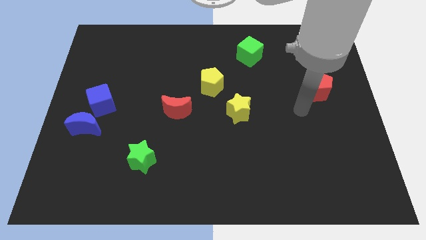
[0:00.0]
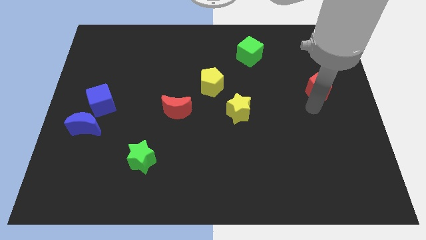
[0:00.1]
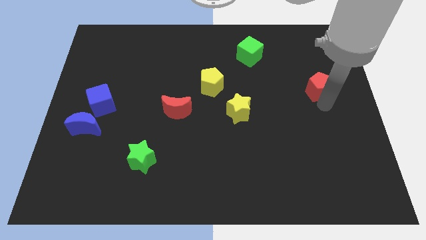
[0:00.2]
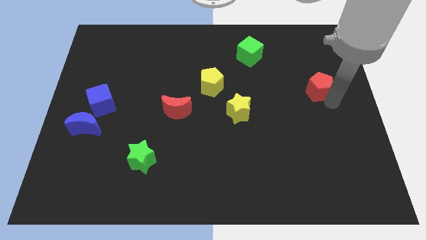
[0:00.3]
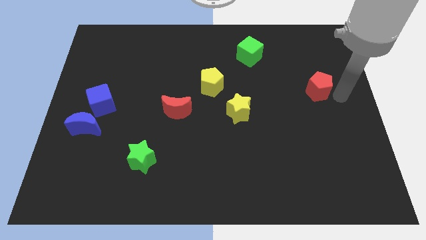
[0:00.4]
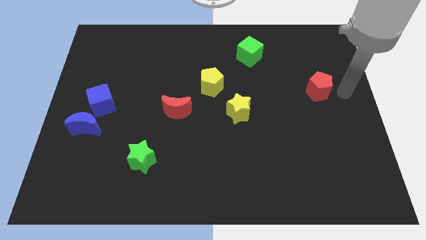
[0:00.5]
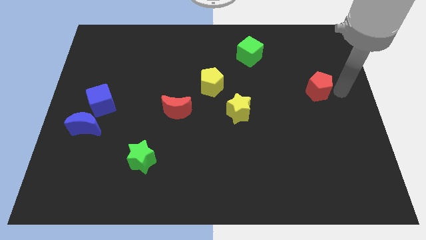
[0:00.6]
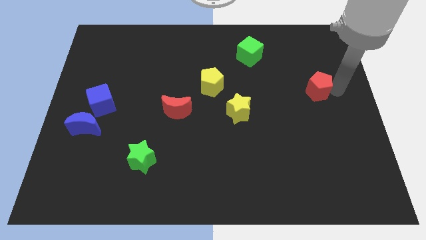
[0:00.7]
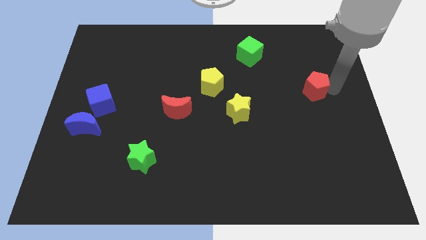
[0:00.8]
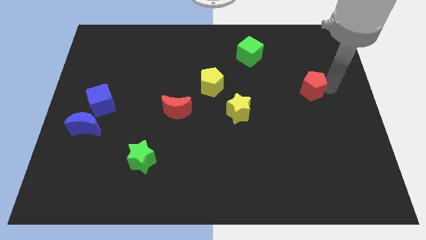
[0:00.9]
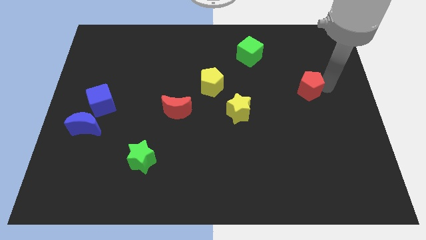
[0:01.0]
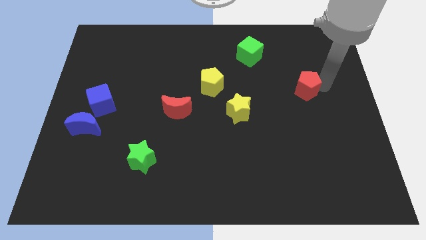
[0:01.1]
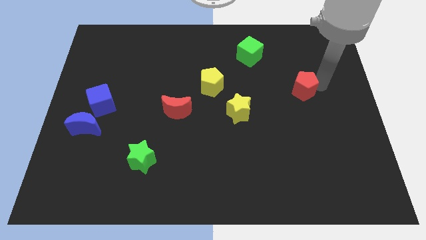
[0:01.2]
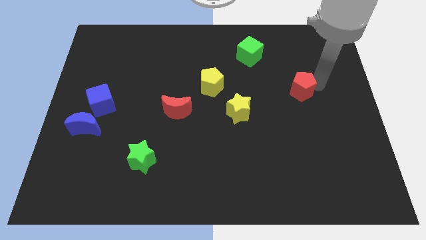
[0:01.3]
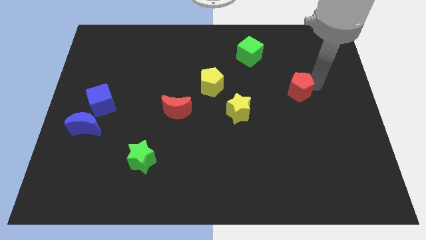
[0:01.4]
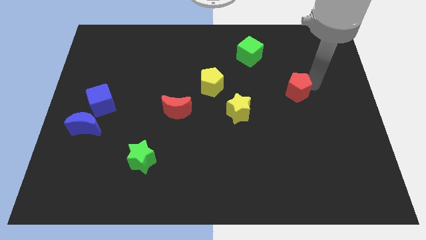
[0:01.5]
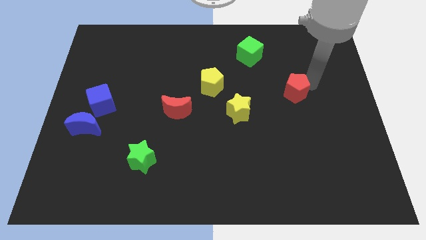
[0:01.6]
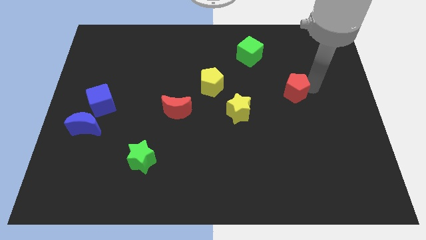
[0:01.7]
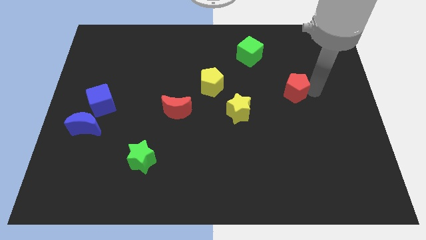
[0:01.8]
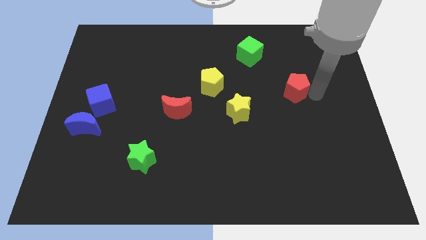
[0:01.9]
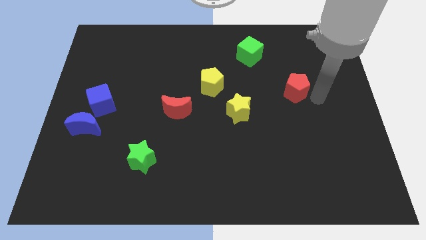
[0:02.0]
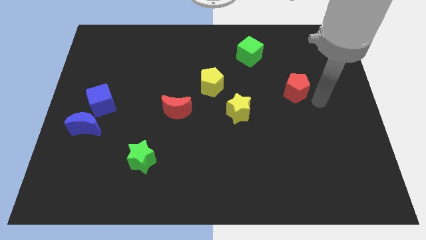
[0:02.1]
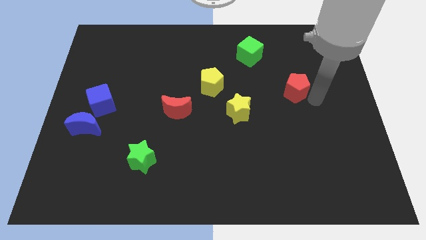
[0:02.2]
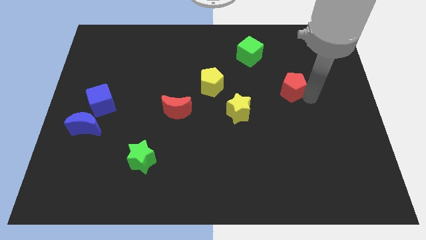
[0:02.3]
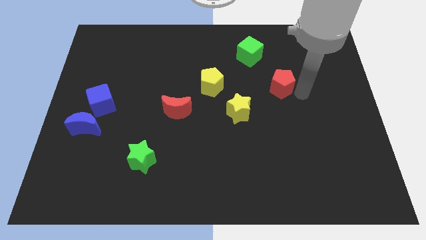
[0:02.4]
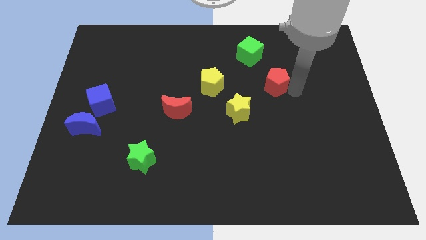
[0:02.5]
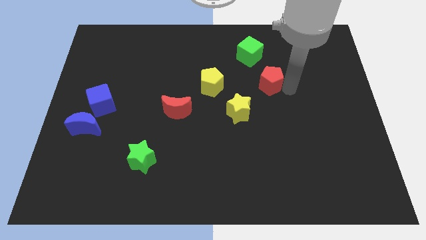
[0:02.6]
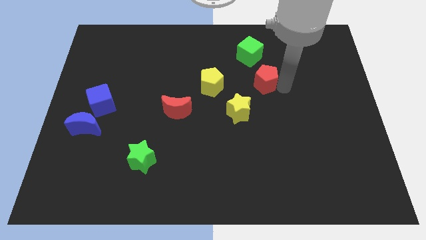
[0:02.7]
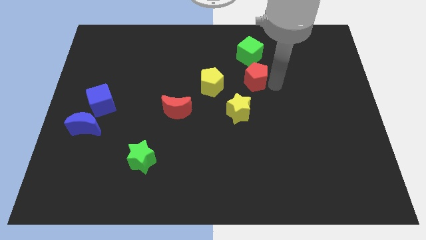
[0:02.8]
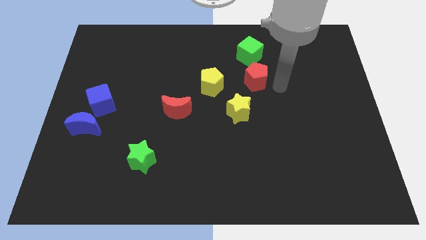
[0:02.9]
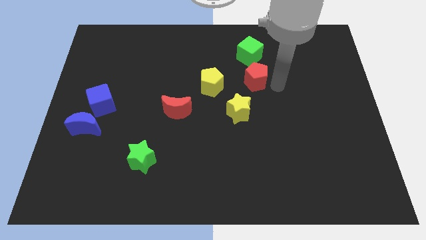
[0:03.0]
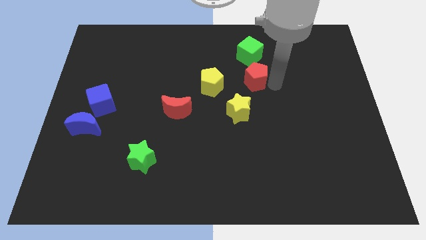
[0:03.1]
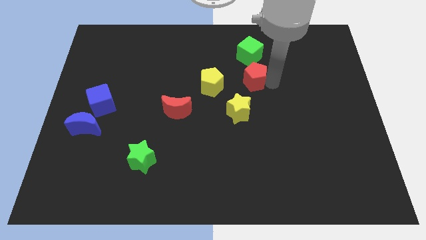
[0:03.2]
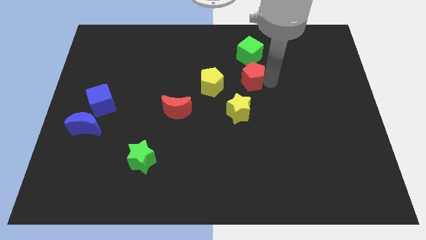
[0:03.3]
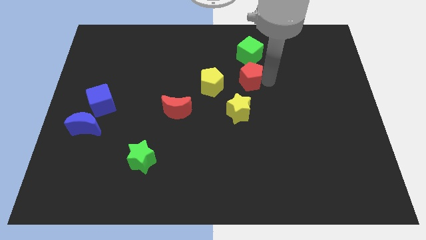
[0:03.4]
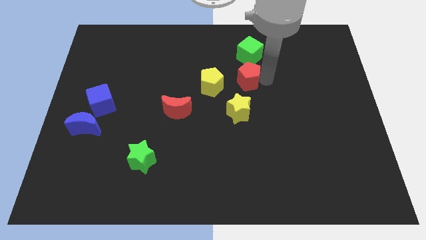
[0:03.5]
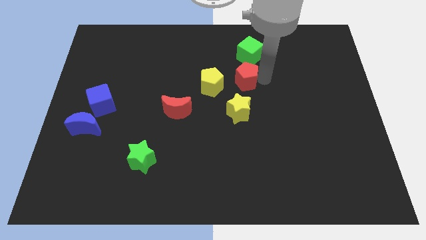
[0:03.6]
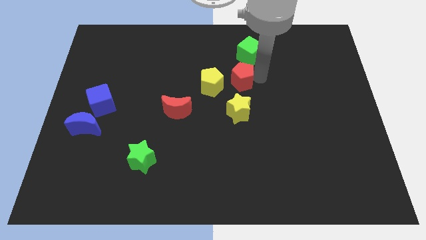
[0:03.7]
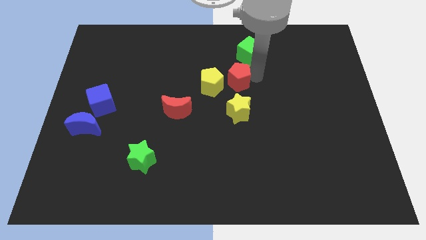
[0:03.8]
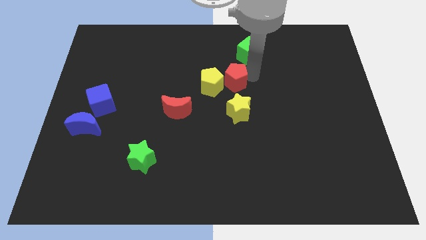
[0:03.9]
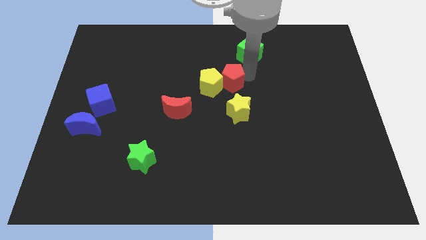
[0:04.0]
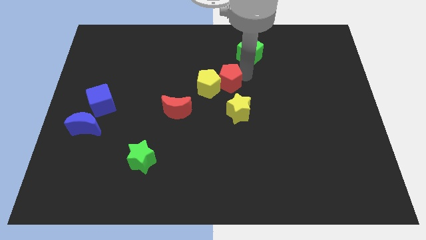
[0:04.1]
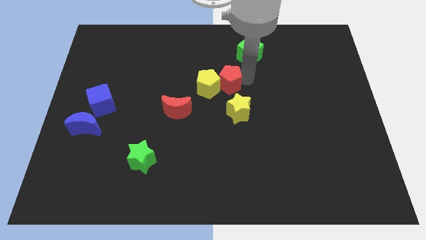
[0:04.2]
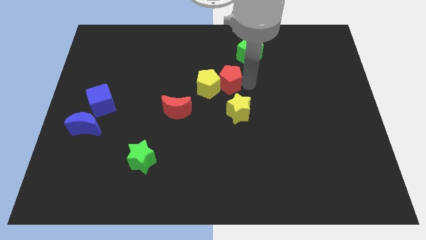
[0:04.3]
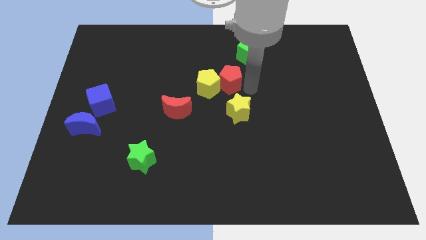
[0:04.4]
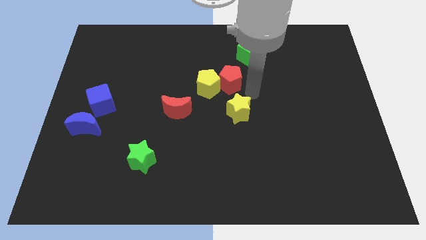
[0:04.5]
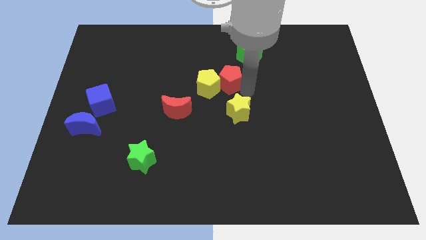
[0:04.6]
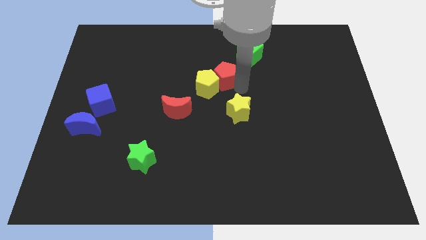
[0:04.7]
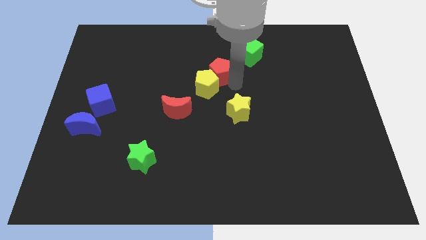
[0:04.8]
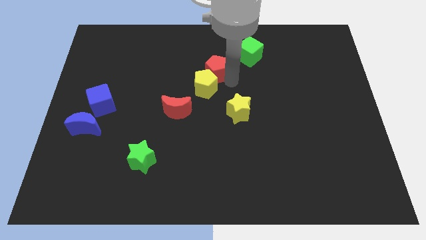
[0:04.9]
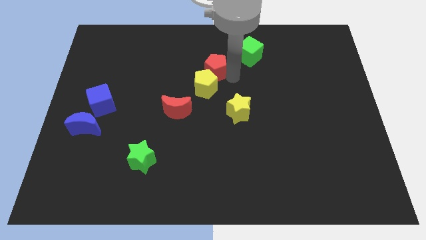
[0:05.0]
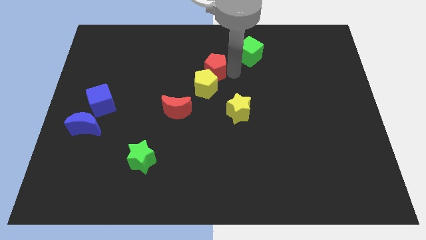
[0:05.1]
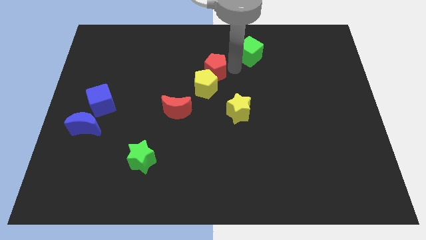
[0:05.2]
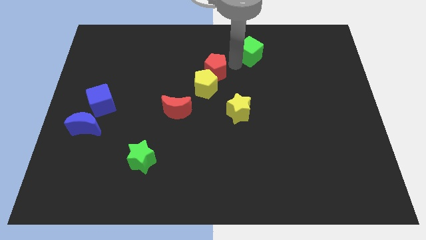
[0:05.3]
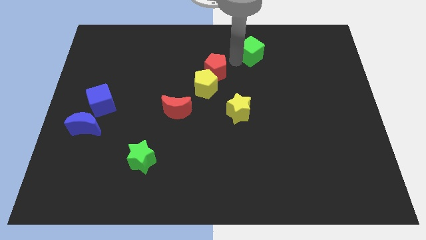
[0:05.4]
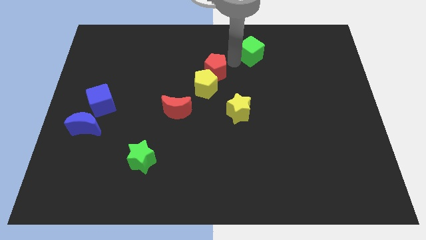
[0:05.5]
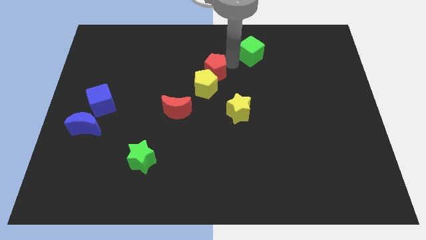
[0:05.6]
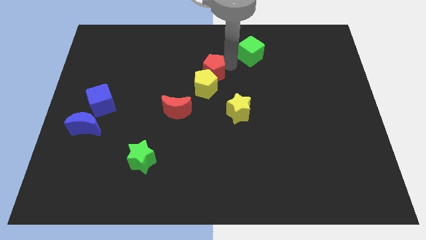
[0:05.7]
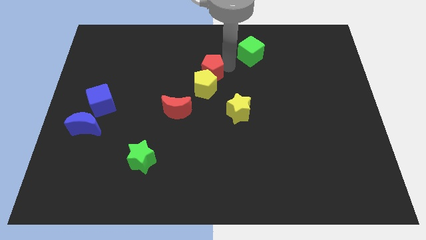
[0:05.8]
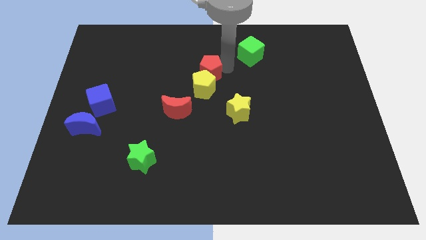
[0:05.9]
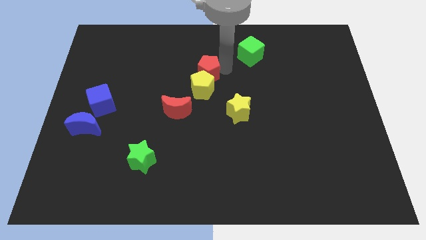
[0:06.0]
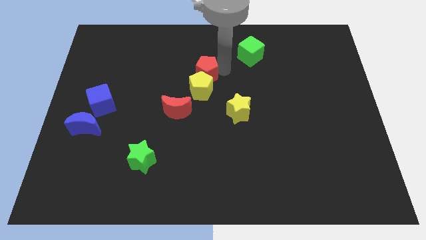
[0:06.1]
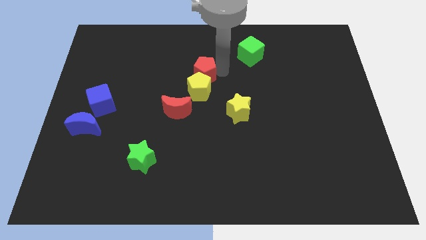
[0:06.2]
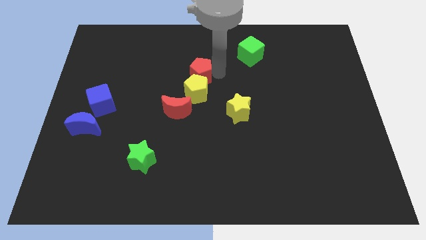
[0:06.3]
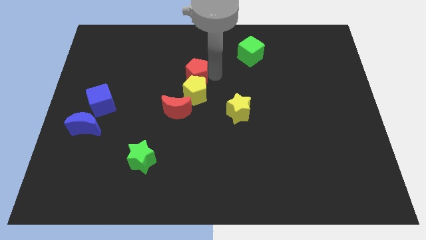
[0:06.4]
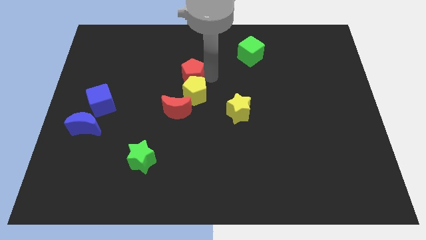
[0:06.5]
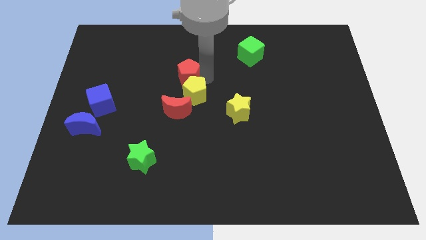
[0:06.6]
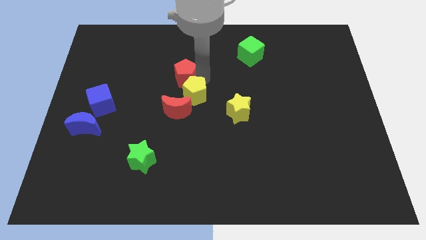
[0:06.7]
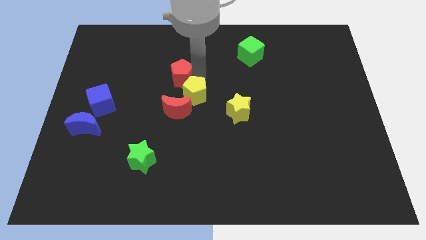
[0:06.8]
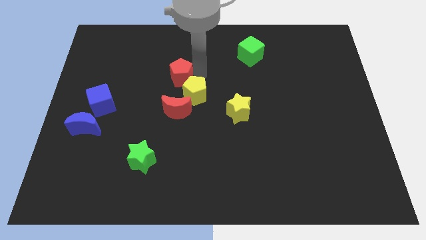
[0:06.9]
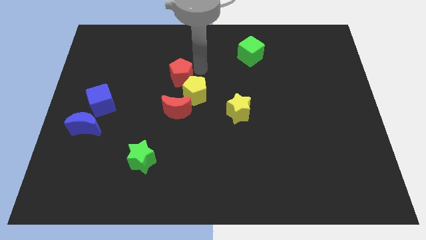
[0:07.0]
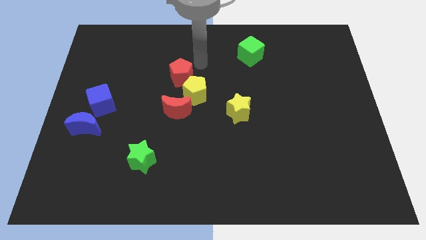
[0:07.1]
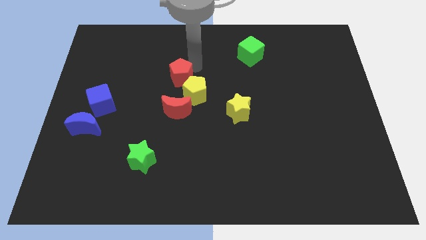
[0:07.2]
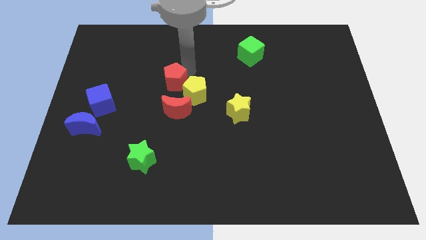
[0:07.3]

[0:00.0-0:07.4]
slide the red pentagon to the left of the yellow pentagon
